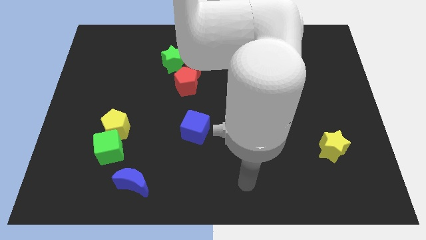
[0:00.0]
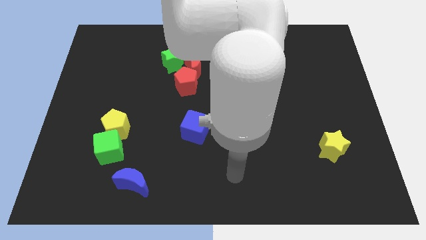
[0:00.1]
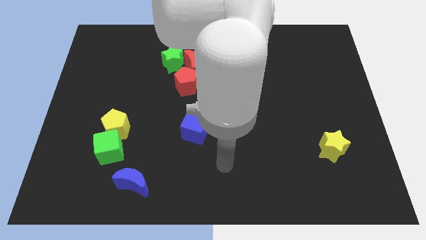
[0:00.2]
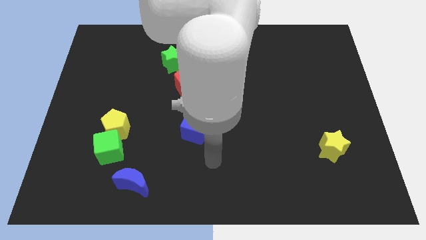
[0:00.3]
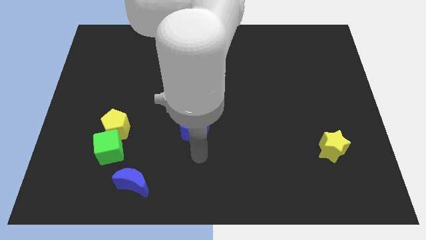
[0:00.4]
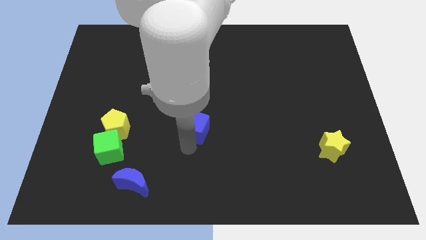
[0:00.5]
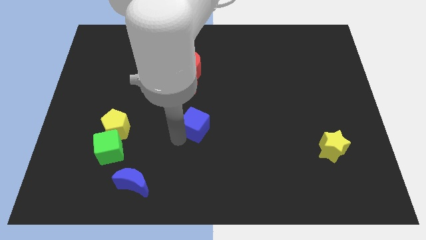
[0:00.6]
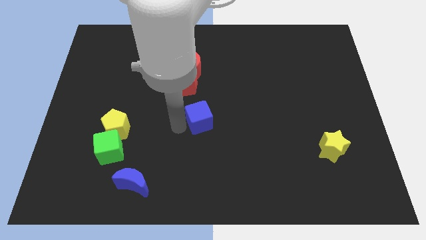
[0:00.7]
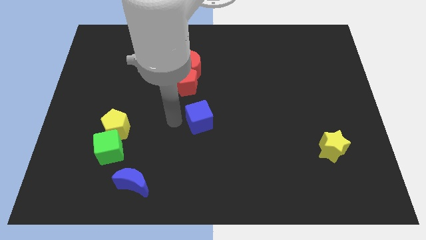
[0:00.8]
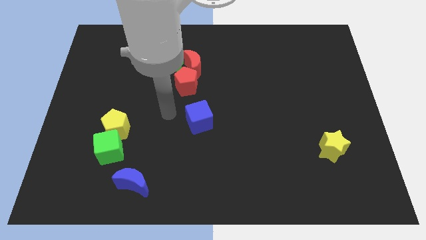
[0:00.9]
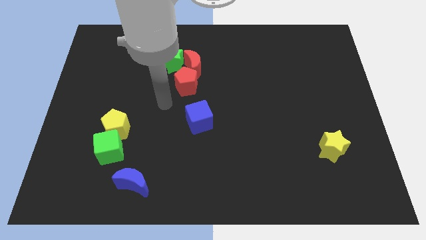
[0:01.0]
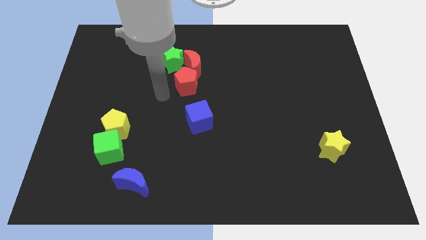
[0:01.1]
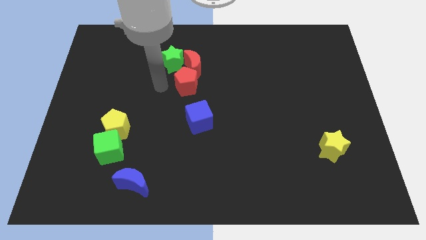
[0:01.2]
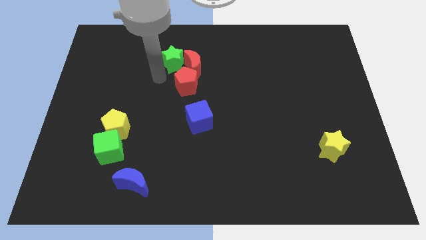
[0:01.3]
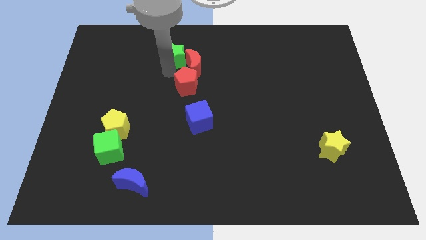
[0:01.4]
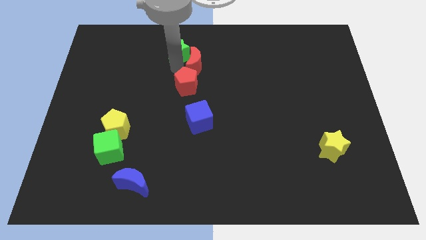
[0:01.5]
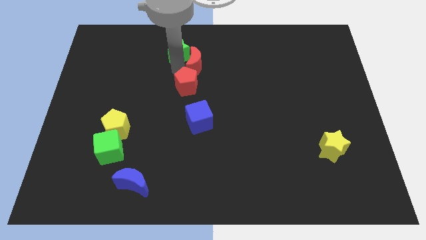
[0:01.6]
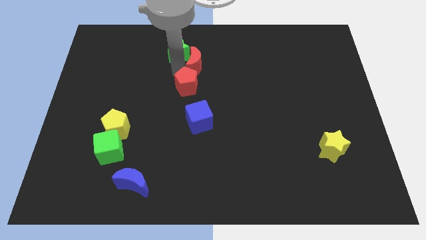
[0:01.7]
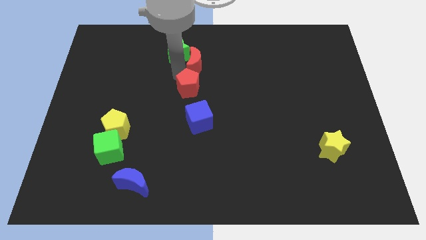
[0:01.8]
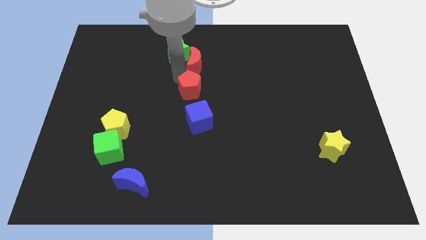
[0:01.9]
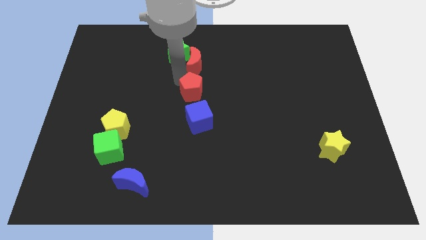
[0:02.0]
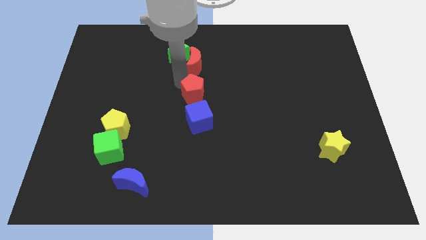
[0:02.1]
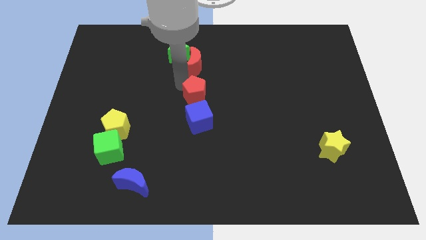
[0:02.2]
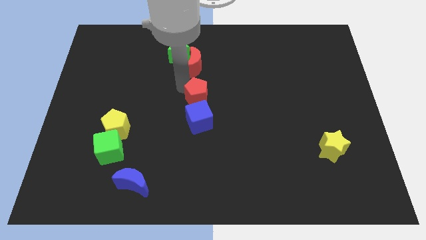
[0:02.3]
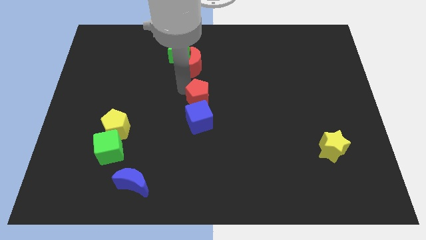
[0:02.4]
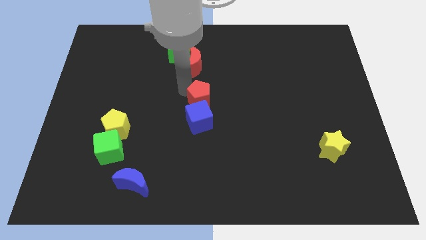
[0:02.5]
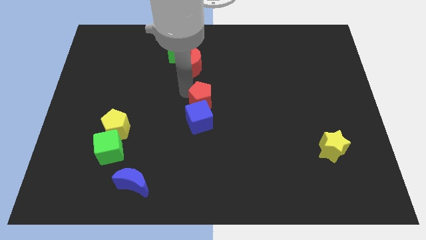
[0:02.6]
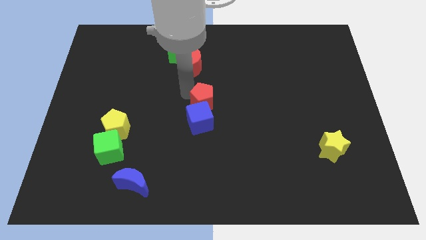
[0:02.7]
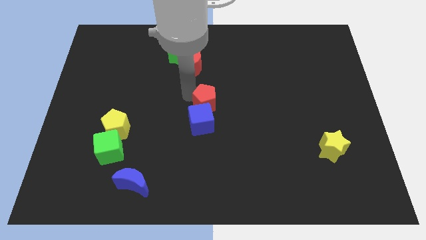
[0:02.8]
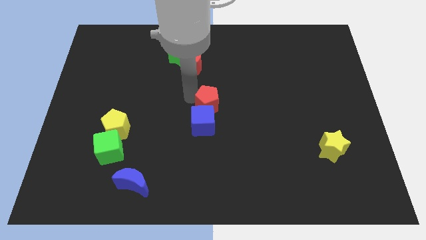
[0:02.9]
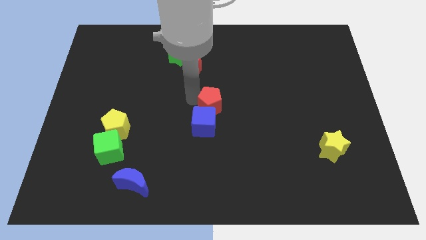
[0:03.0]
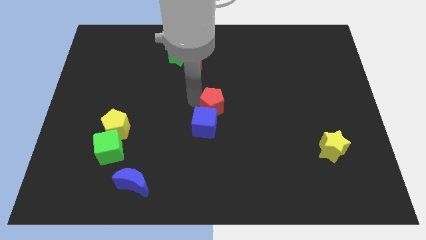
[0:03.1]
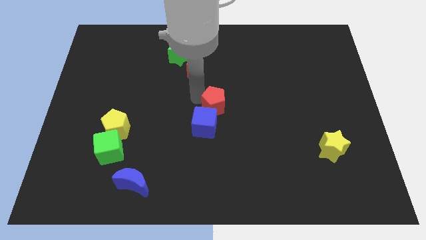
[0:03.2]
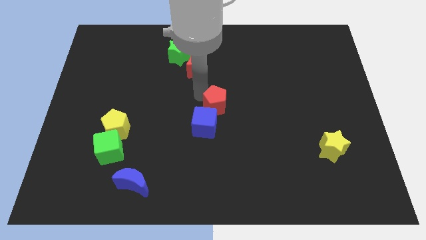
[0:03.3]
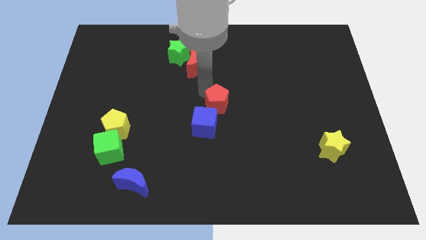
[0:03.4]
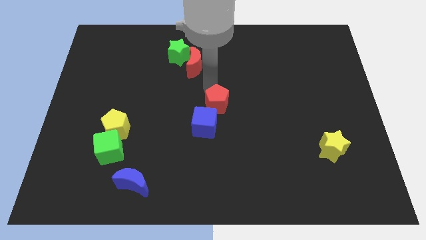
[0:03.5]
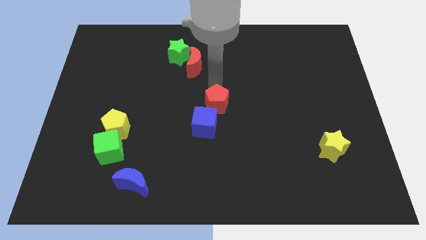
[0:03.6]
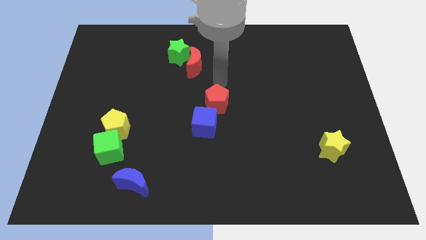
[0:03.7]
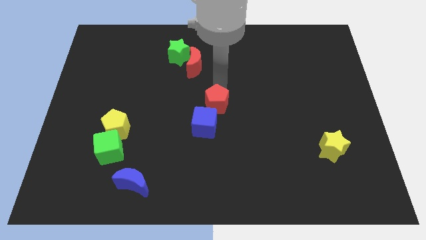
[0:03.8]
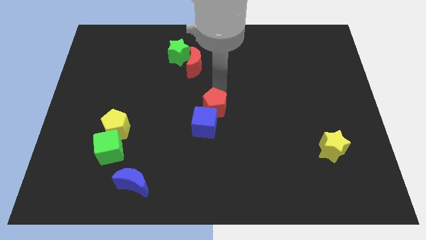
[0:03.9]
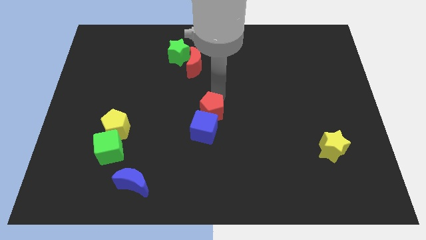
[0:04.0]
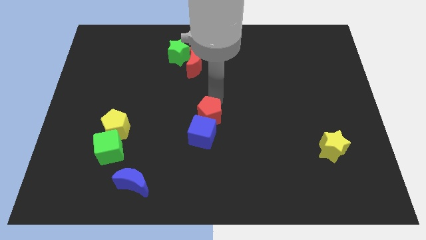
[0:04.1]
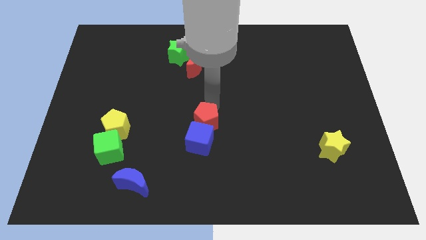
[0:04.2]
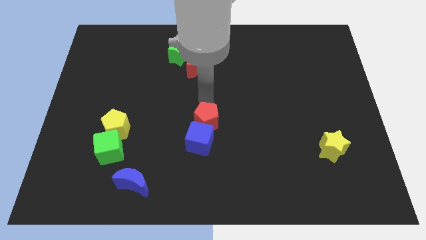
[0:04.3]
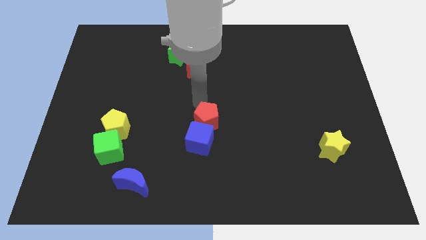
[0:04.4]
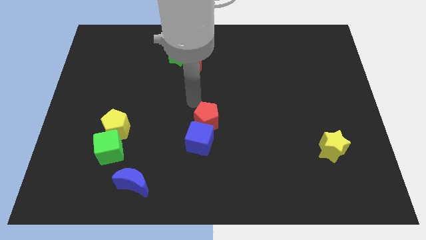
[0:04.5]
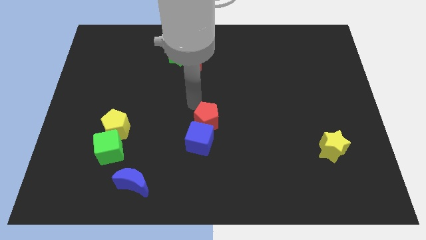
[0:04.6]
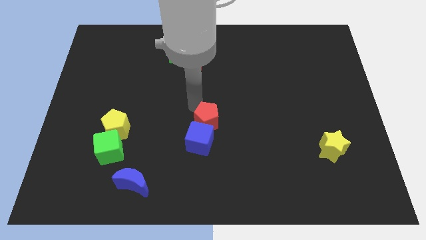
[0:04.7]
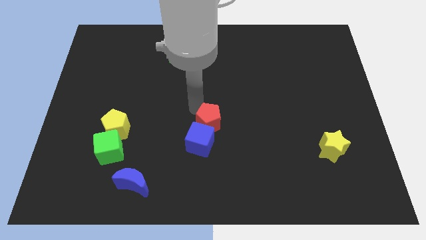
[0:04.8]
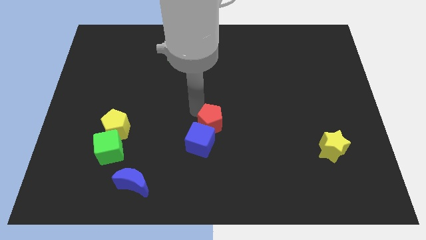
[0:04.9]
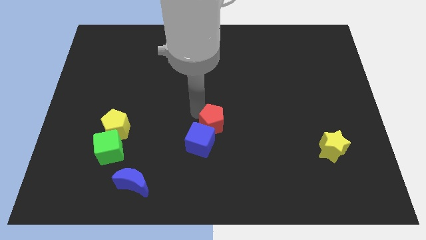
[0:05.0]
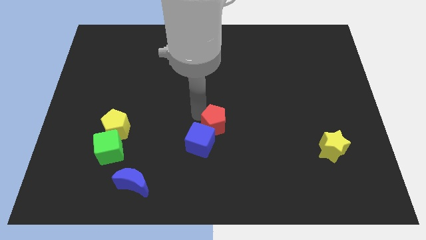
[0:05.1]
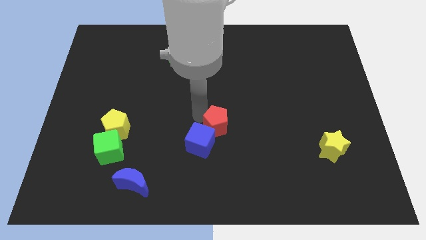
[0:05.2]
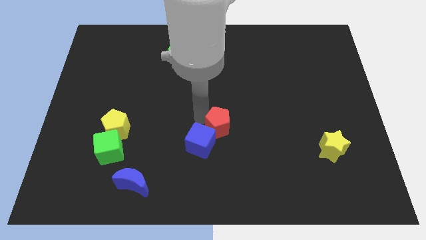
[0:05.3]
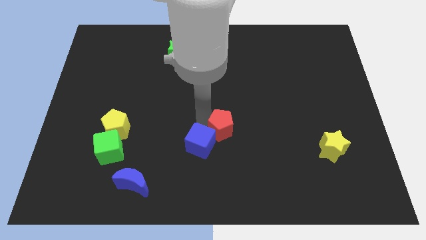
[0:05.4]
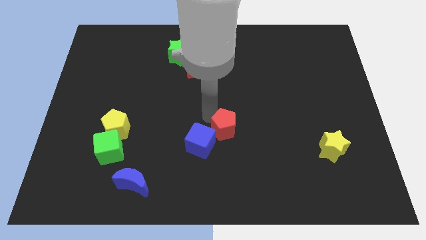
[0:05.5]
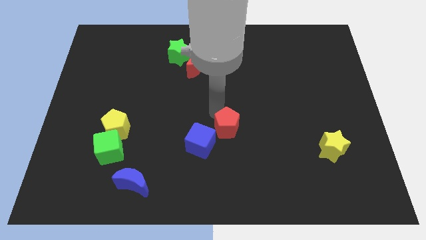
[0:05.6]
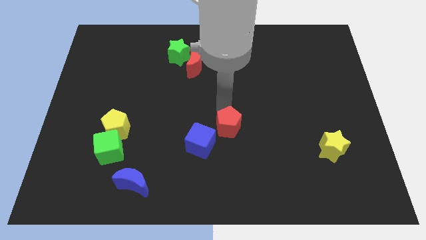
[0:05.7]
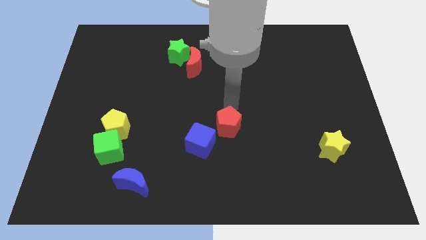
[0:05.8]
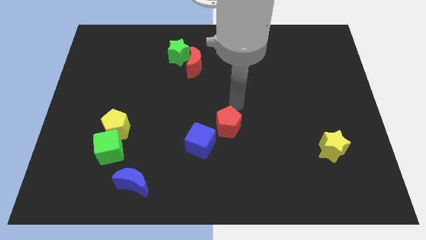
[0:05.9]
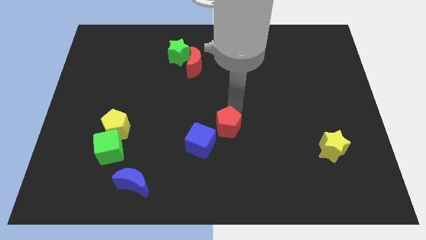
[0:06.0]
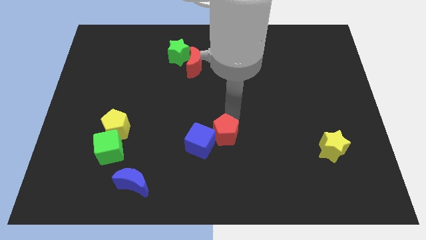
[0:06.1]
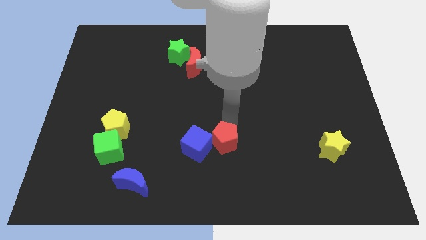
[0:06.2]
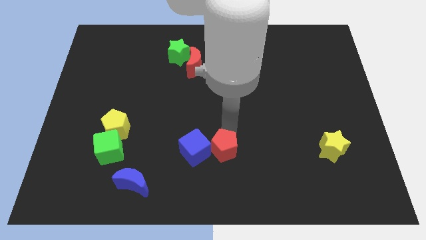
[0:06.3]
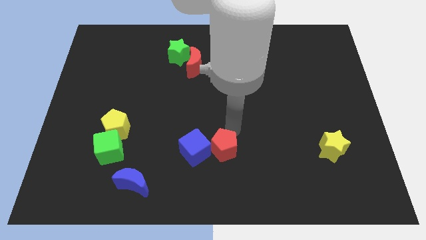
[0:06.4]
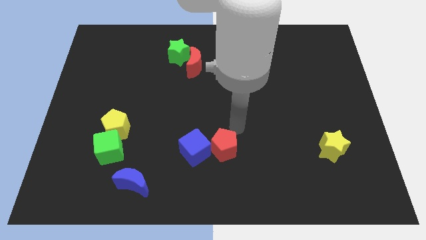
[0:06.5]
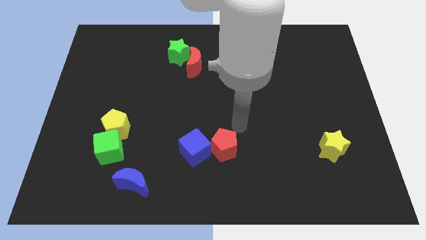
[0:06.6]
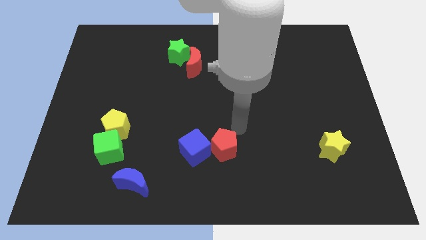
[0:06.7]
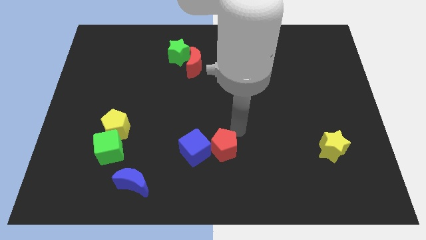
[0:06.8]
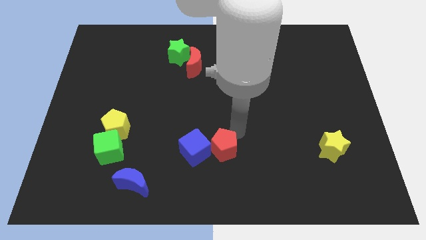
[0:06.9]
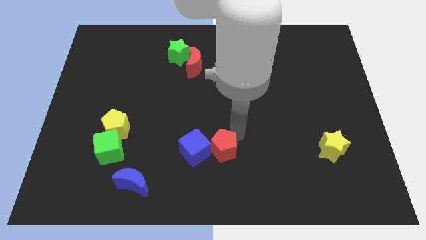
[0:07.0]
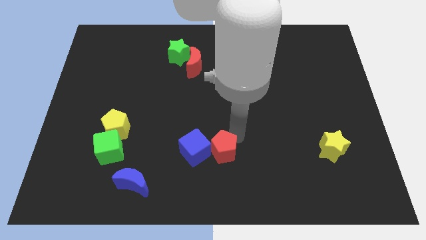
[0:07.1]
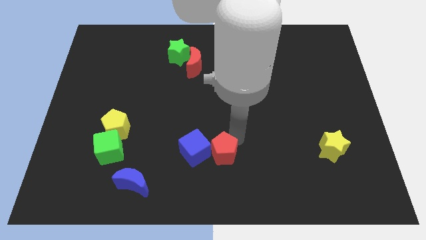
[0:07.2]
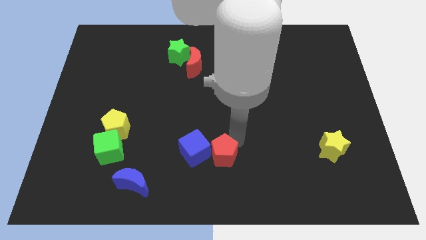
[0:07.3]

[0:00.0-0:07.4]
slide the red pentagon to the bottom side
